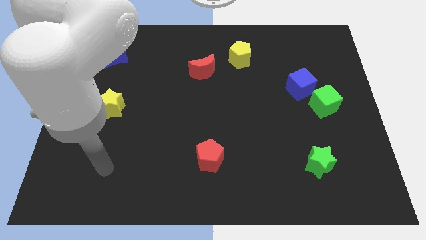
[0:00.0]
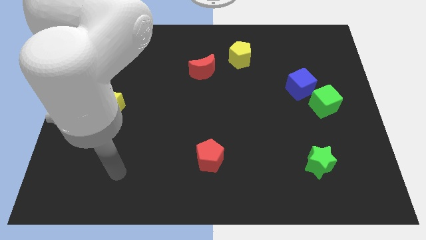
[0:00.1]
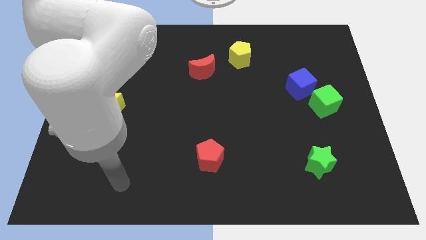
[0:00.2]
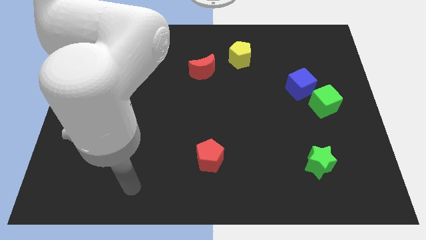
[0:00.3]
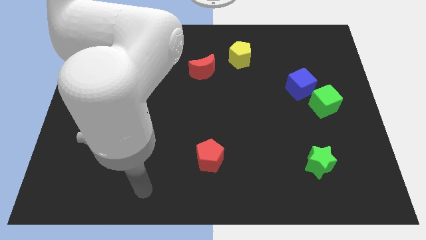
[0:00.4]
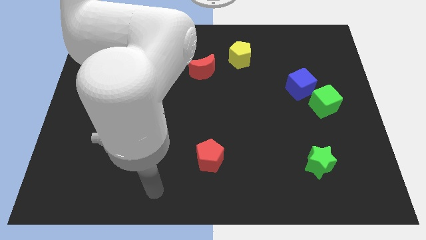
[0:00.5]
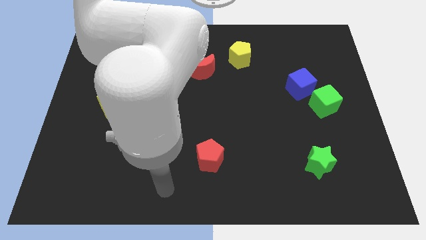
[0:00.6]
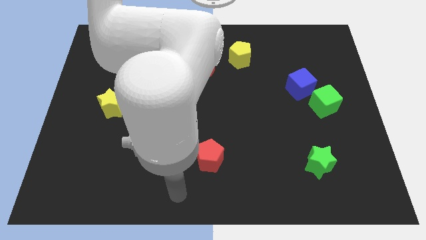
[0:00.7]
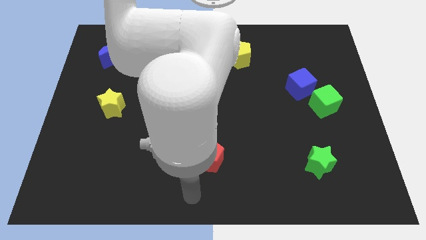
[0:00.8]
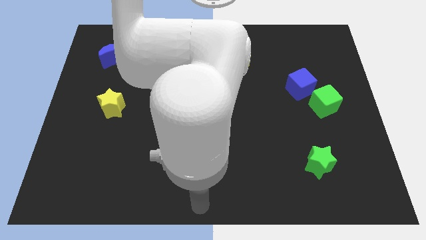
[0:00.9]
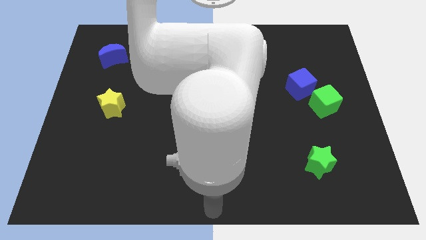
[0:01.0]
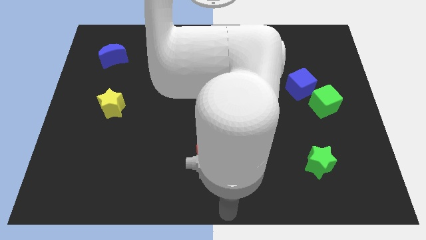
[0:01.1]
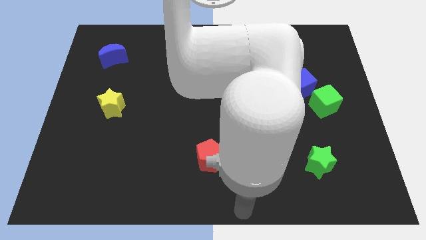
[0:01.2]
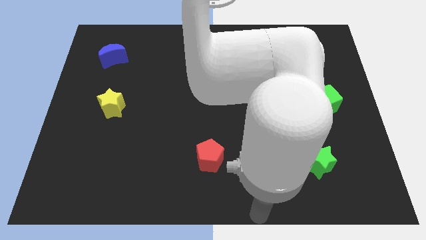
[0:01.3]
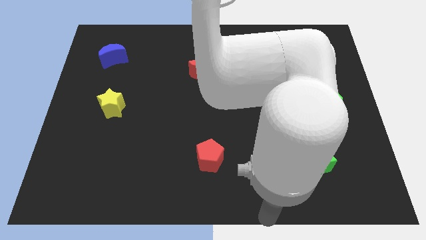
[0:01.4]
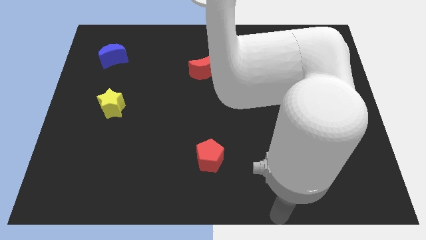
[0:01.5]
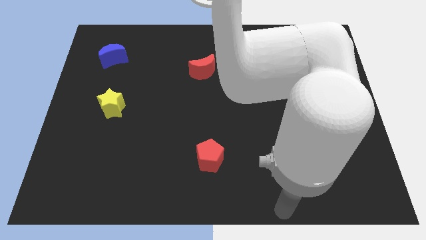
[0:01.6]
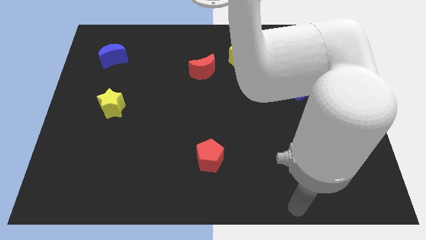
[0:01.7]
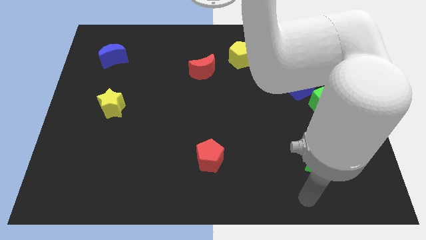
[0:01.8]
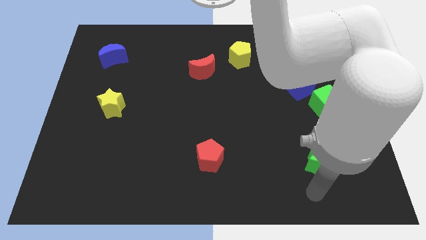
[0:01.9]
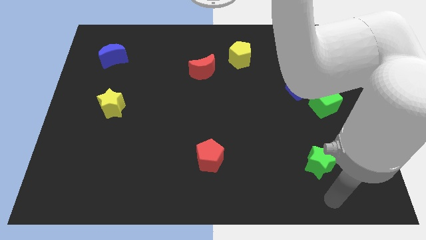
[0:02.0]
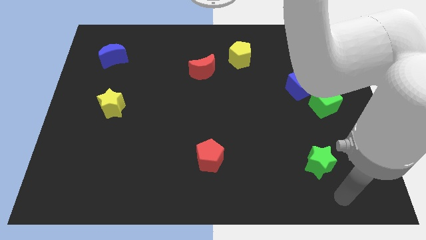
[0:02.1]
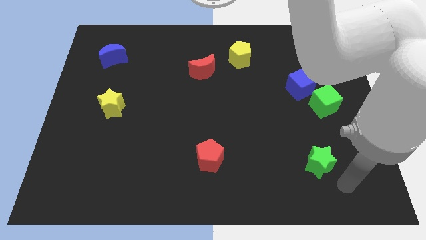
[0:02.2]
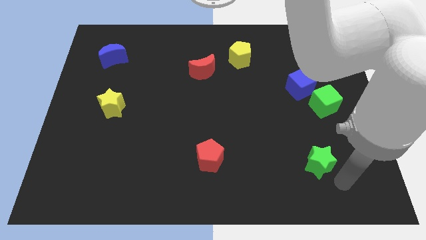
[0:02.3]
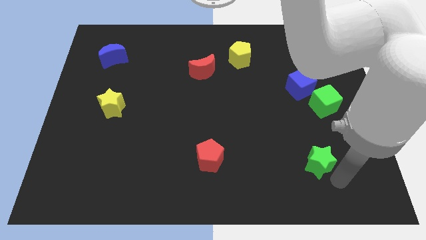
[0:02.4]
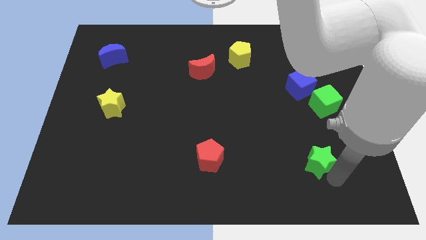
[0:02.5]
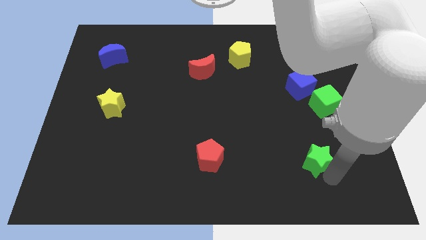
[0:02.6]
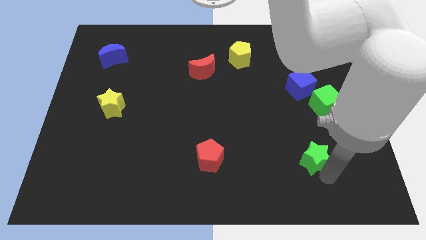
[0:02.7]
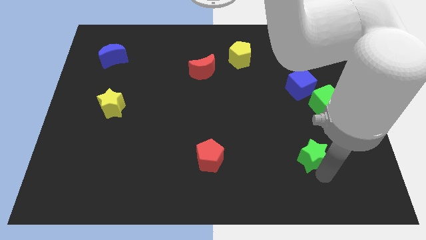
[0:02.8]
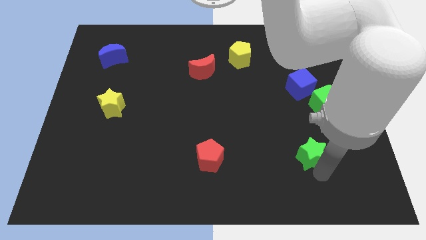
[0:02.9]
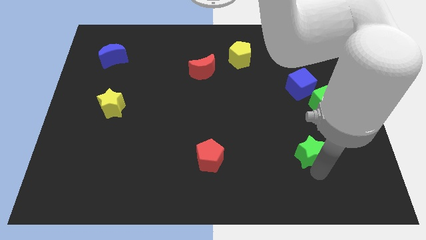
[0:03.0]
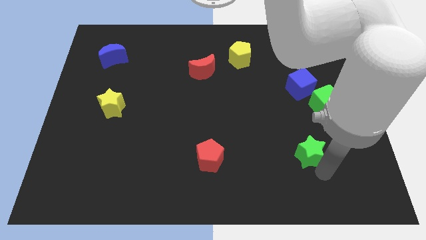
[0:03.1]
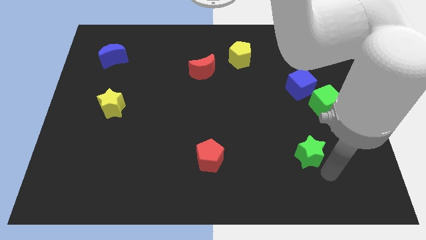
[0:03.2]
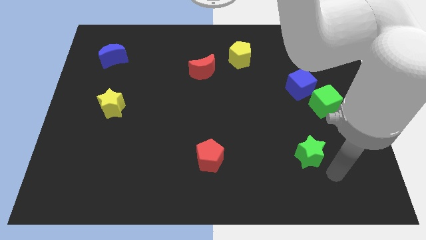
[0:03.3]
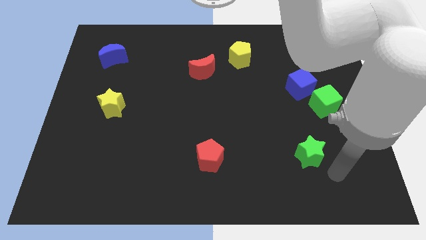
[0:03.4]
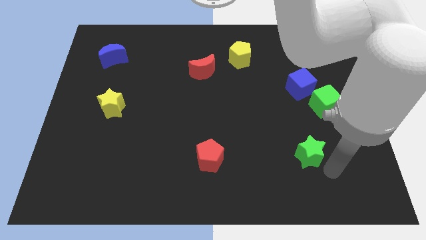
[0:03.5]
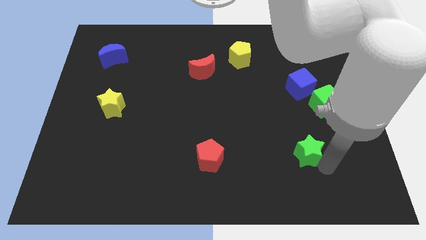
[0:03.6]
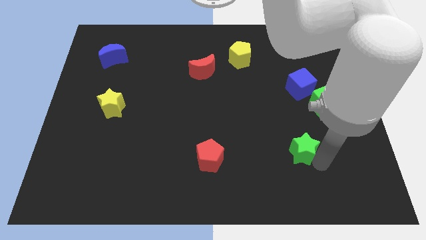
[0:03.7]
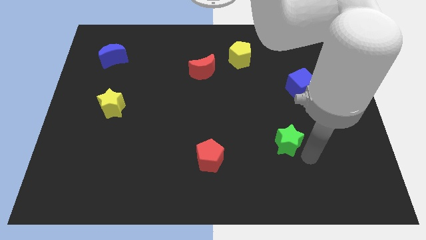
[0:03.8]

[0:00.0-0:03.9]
slightly push the green star up and left

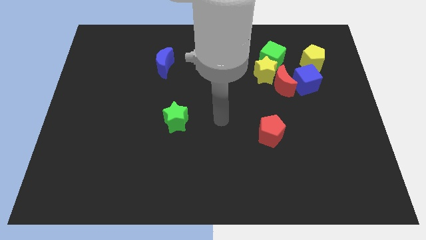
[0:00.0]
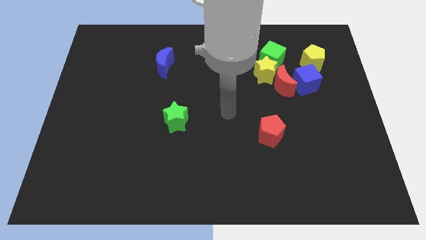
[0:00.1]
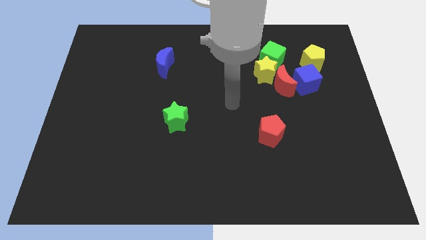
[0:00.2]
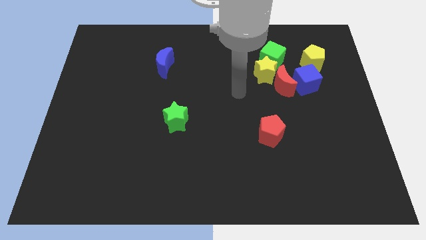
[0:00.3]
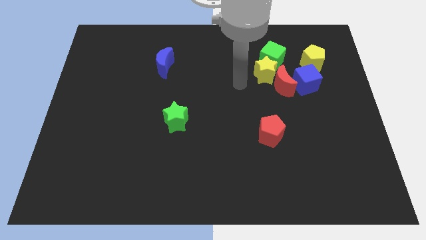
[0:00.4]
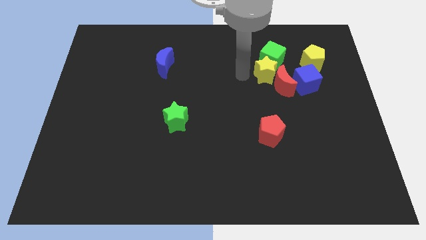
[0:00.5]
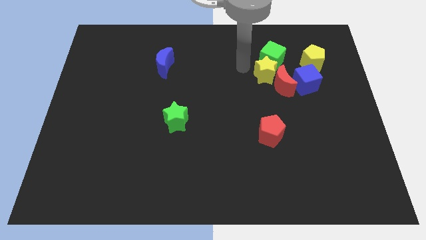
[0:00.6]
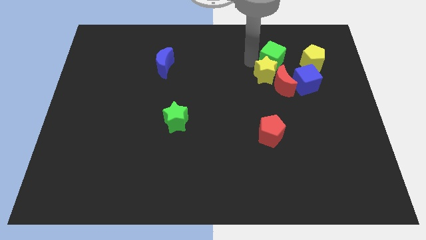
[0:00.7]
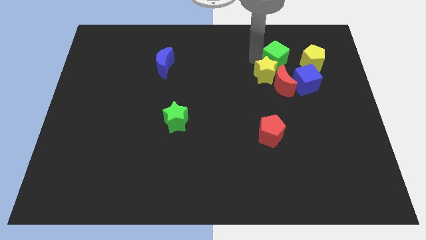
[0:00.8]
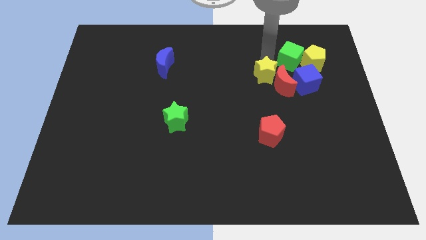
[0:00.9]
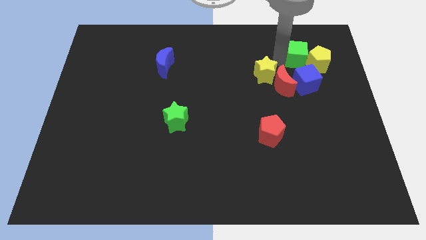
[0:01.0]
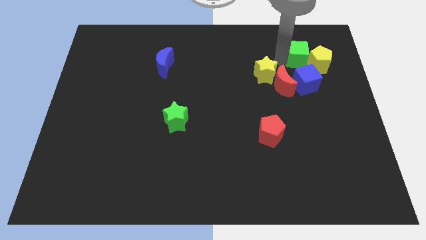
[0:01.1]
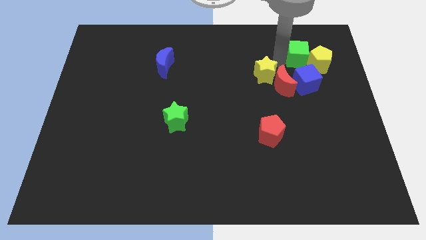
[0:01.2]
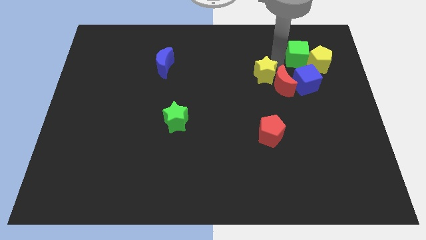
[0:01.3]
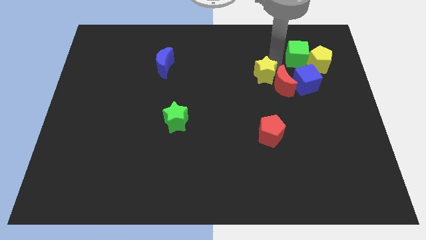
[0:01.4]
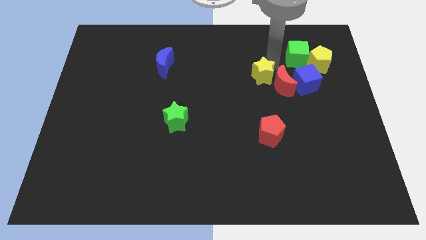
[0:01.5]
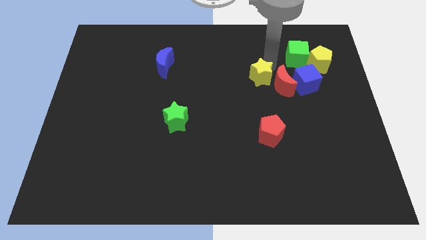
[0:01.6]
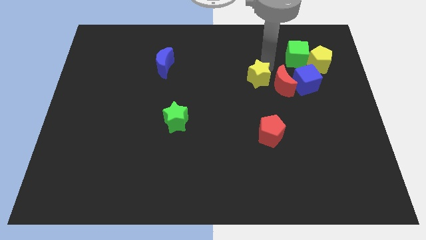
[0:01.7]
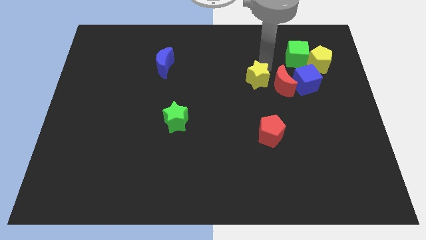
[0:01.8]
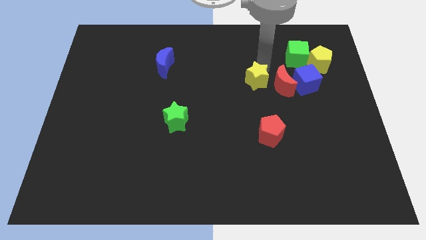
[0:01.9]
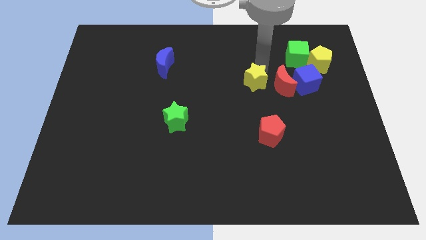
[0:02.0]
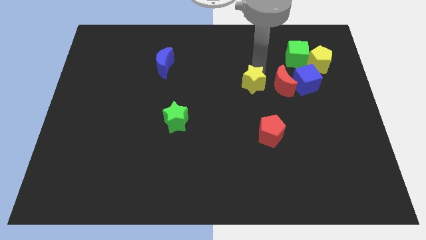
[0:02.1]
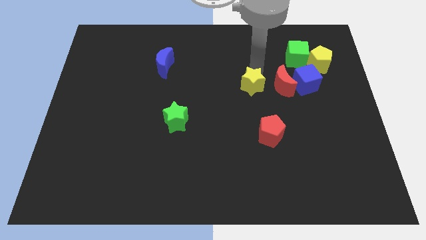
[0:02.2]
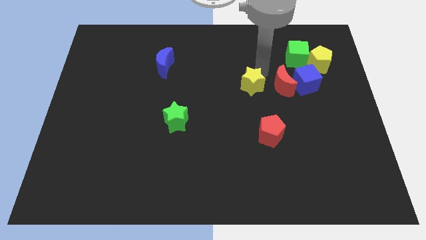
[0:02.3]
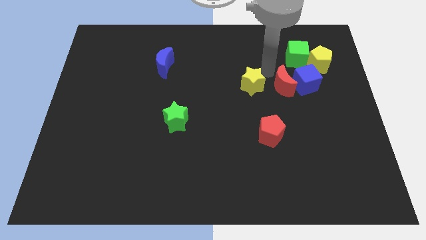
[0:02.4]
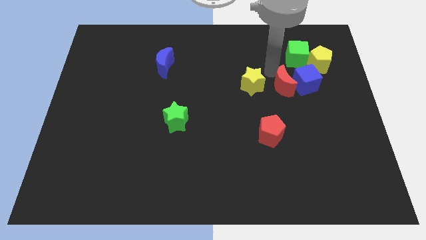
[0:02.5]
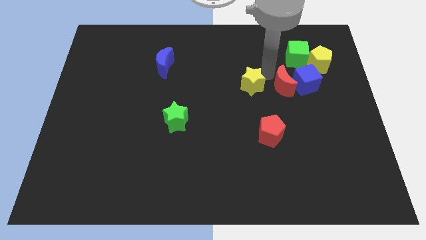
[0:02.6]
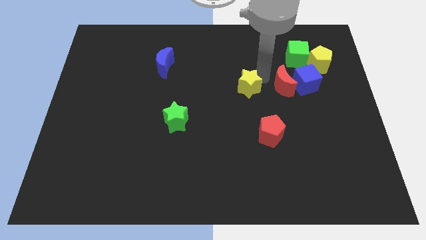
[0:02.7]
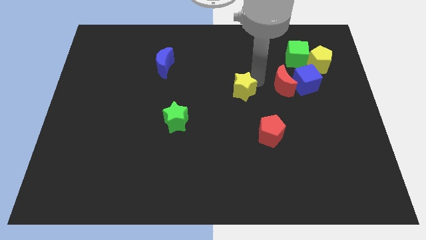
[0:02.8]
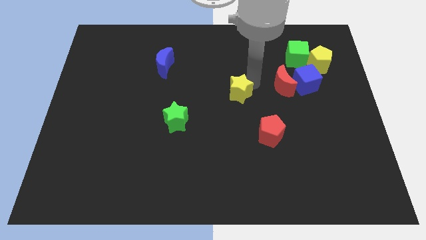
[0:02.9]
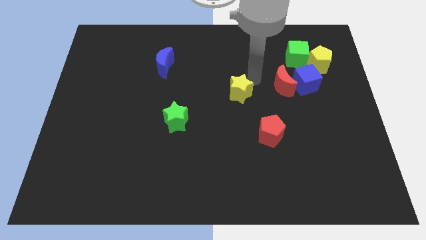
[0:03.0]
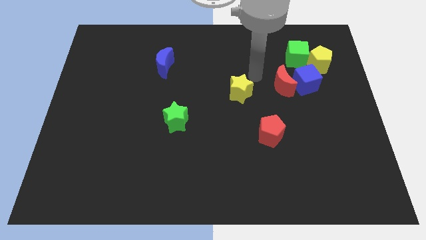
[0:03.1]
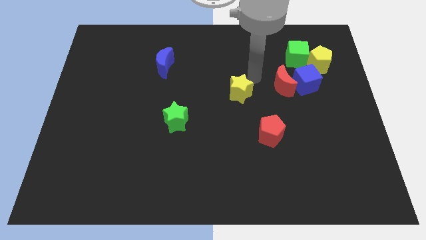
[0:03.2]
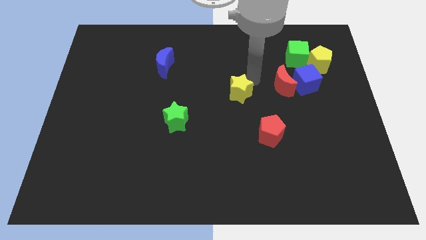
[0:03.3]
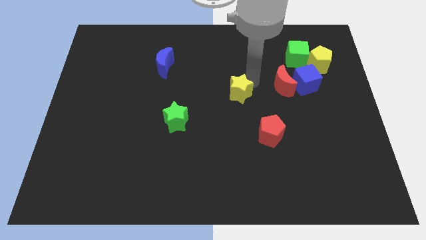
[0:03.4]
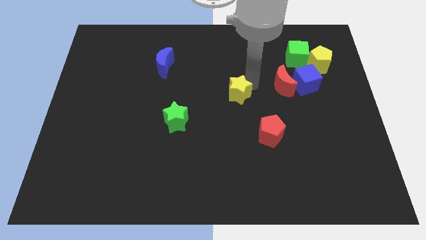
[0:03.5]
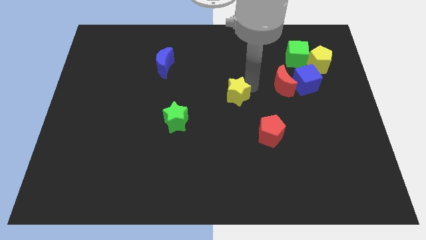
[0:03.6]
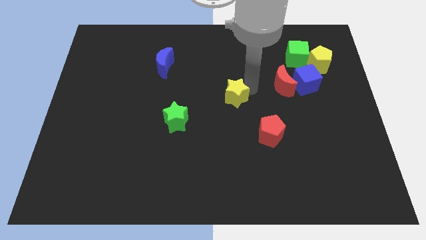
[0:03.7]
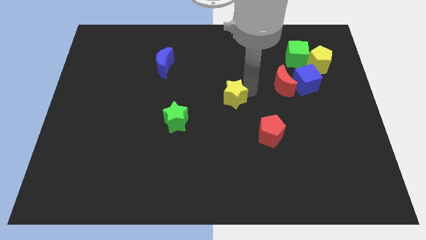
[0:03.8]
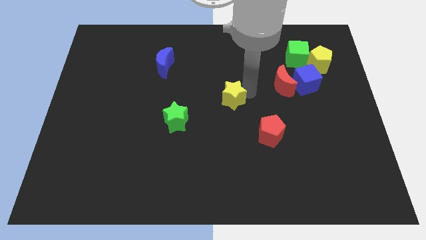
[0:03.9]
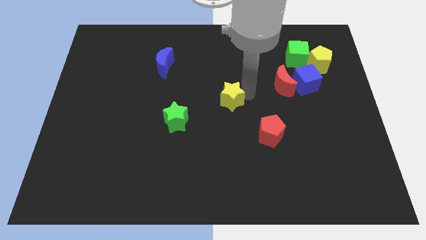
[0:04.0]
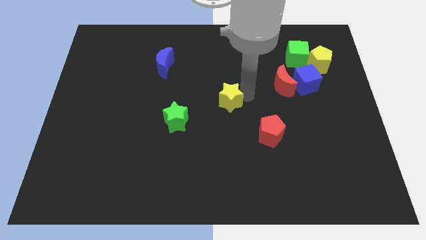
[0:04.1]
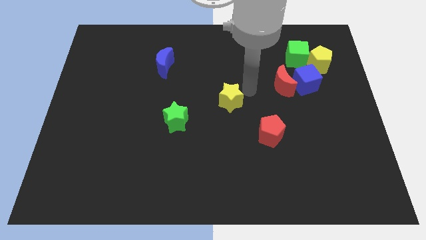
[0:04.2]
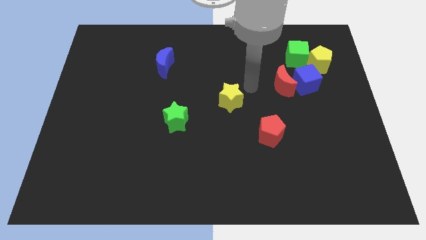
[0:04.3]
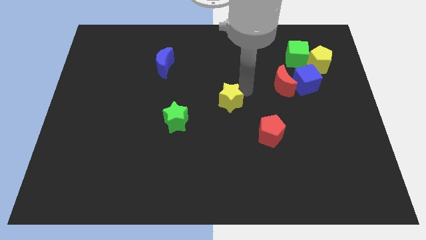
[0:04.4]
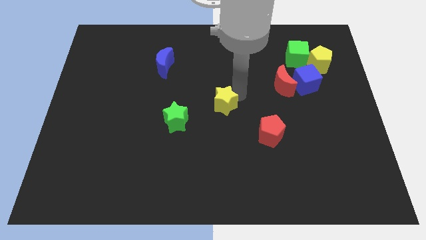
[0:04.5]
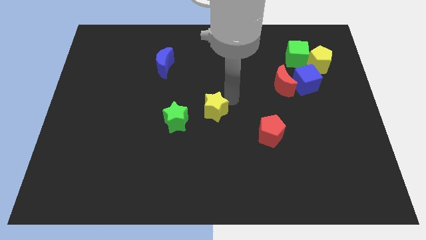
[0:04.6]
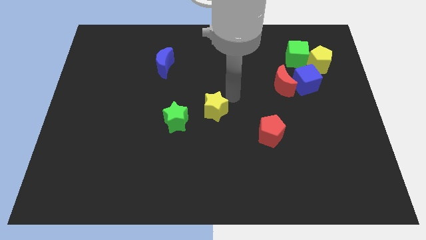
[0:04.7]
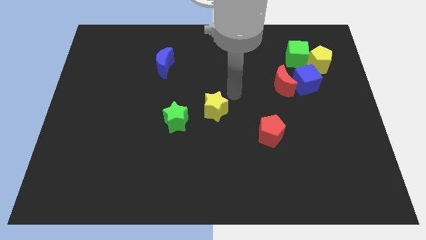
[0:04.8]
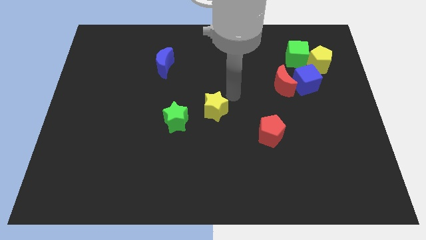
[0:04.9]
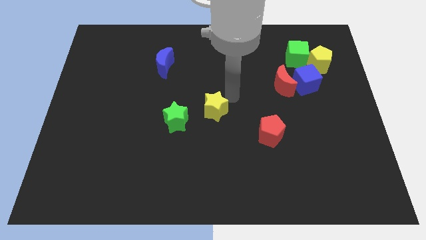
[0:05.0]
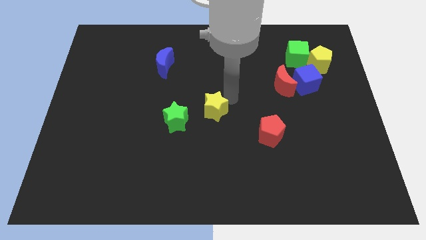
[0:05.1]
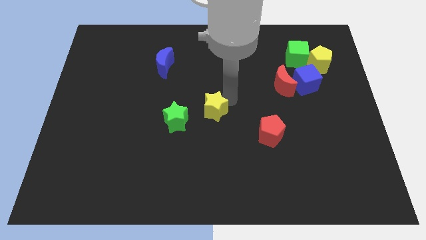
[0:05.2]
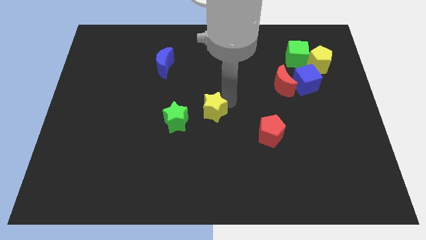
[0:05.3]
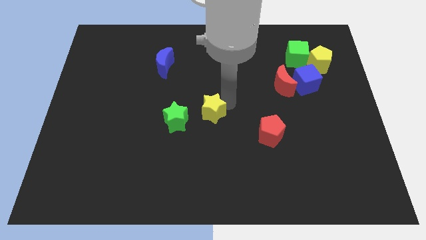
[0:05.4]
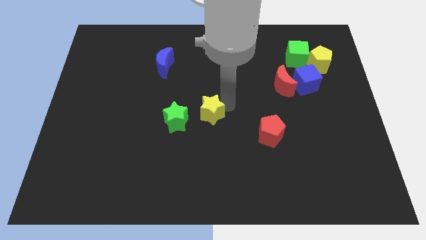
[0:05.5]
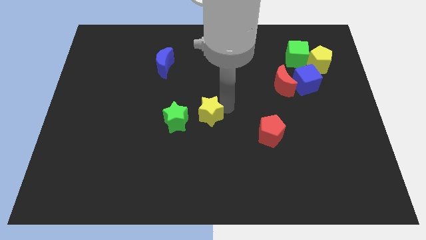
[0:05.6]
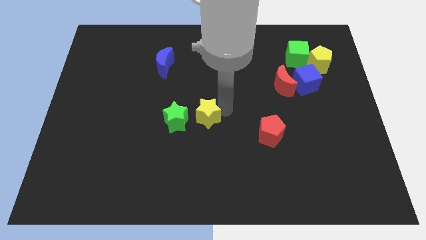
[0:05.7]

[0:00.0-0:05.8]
push the yellow star diagonally down and left
